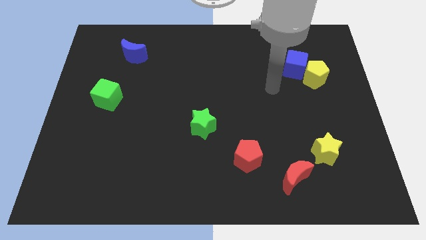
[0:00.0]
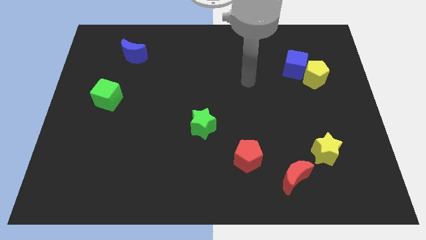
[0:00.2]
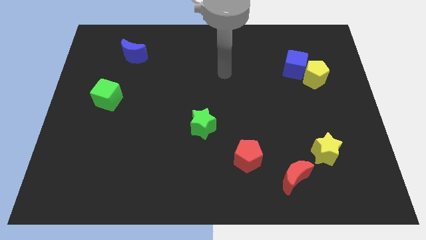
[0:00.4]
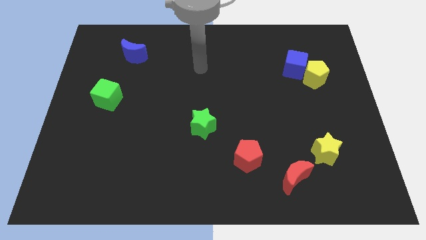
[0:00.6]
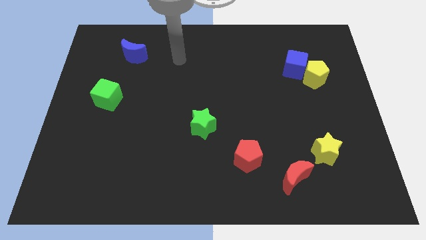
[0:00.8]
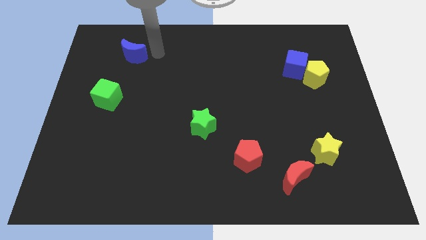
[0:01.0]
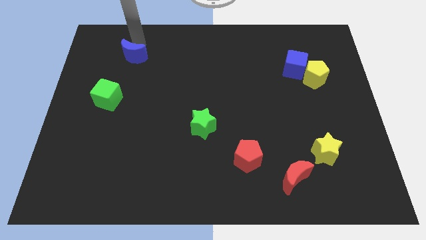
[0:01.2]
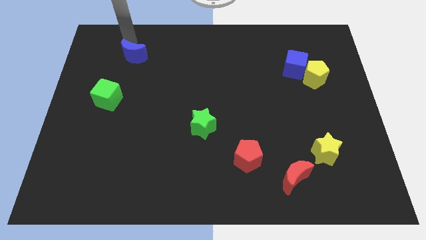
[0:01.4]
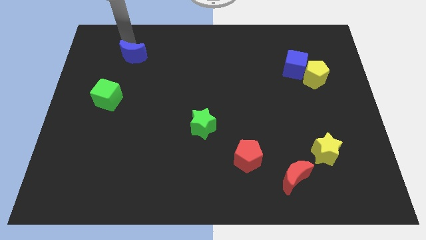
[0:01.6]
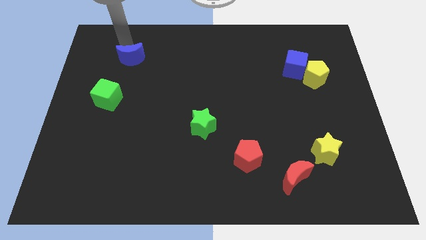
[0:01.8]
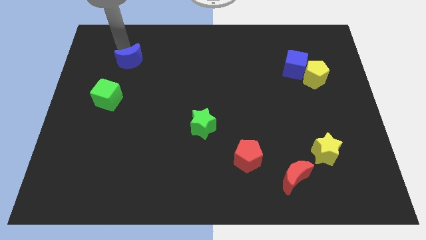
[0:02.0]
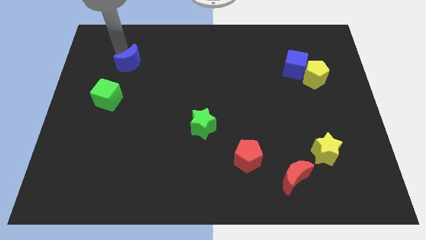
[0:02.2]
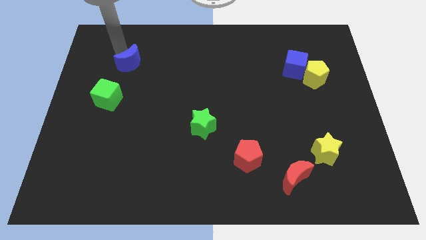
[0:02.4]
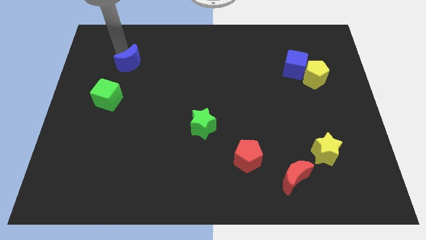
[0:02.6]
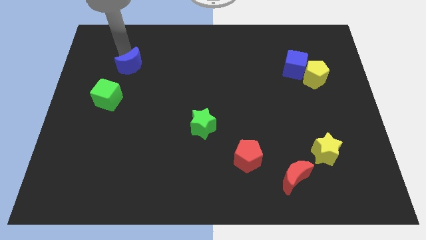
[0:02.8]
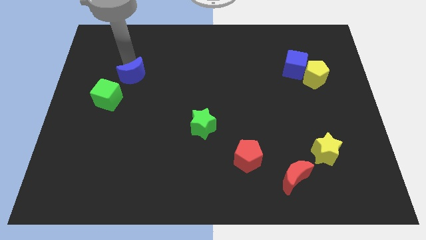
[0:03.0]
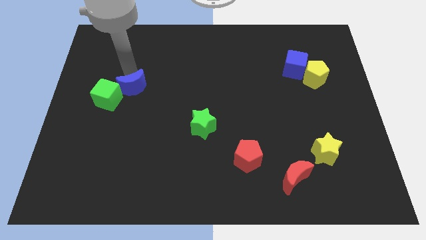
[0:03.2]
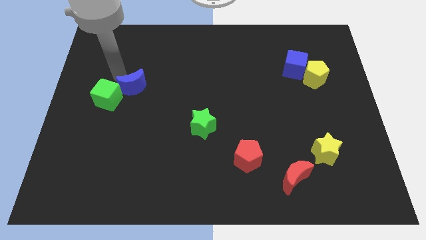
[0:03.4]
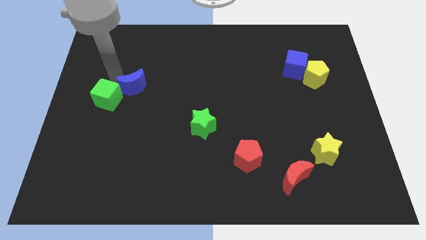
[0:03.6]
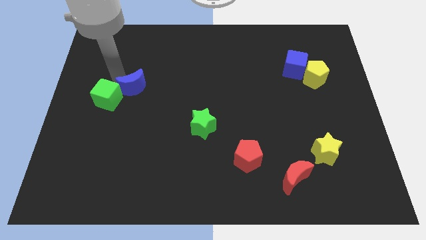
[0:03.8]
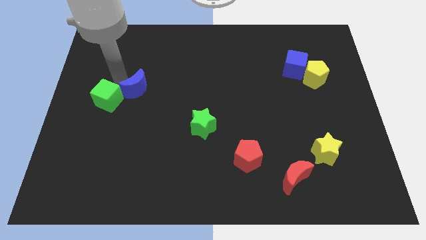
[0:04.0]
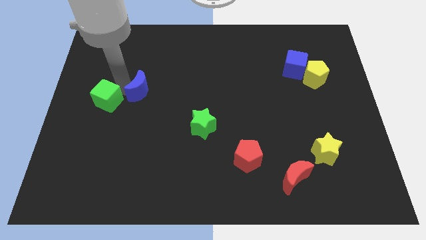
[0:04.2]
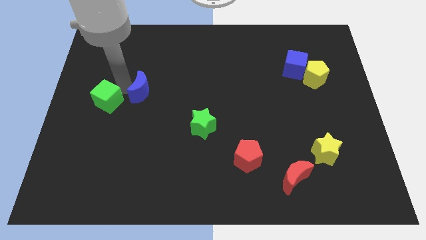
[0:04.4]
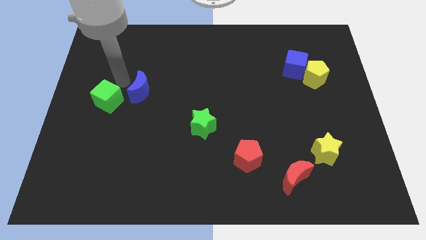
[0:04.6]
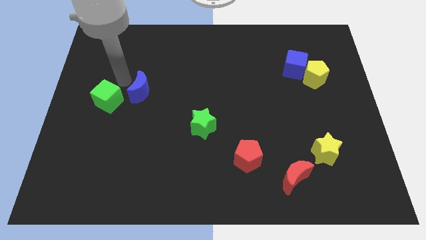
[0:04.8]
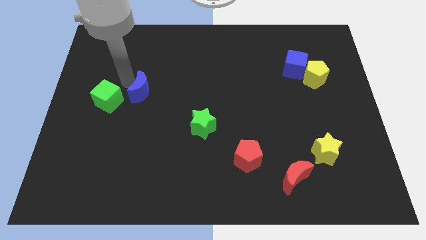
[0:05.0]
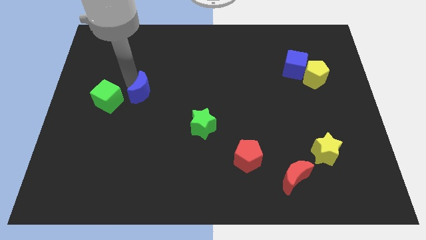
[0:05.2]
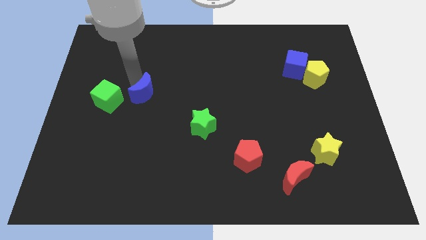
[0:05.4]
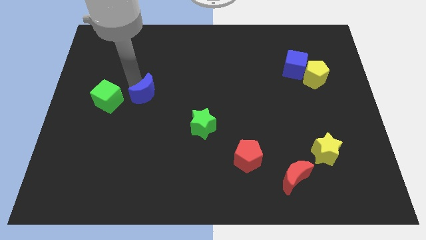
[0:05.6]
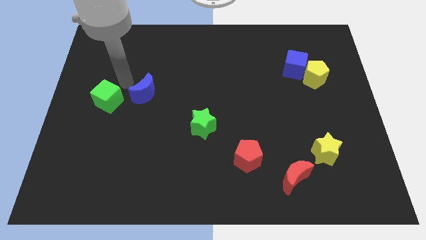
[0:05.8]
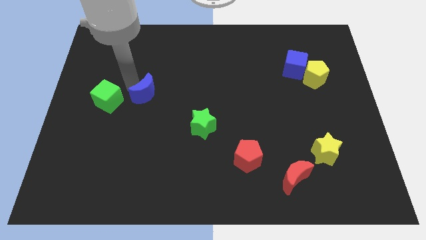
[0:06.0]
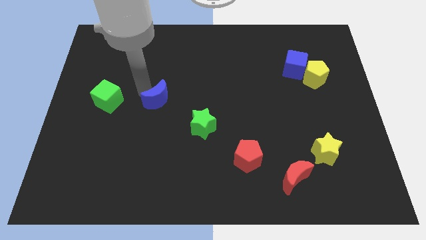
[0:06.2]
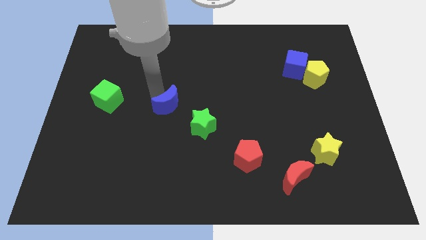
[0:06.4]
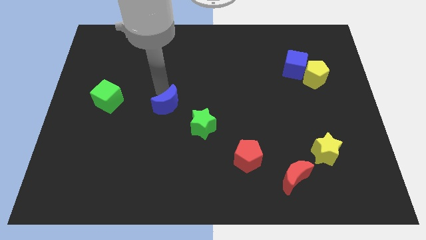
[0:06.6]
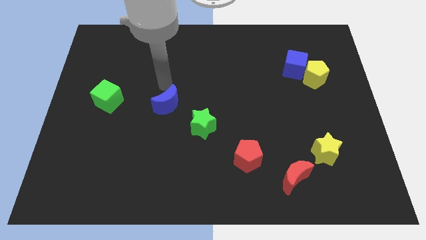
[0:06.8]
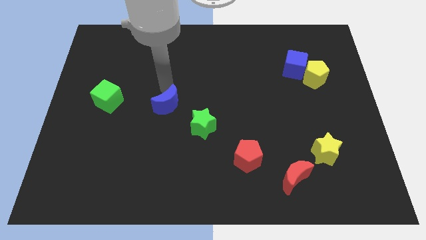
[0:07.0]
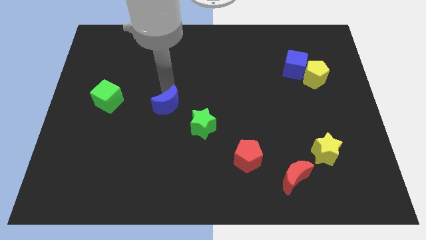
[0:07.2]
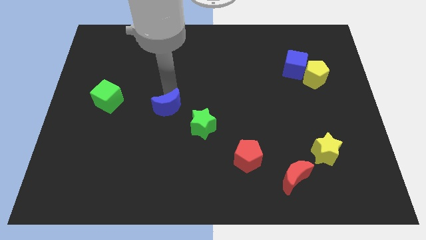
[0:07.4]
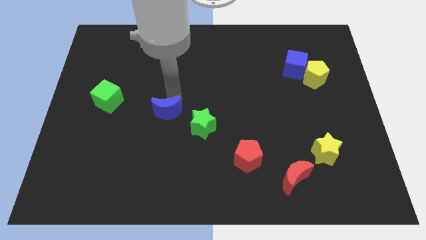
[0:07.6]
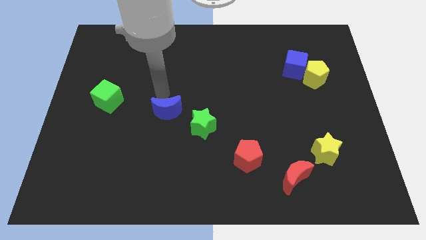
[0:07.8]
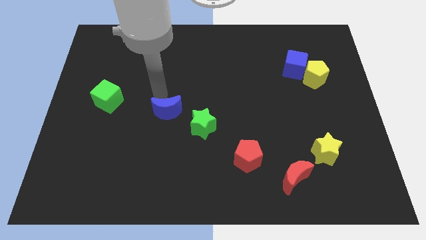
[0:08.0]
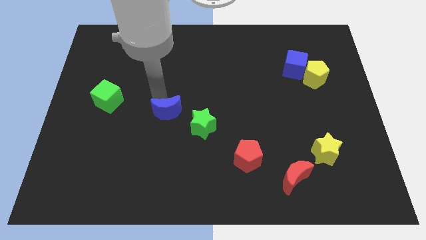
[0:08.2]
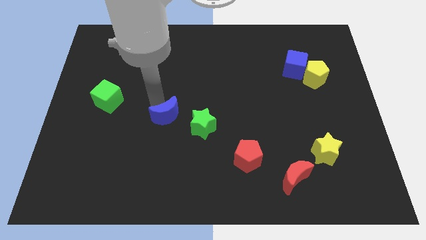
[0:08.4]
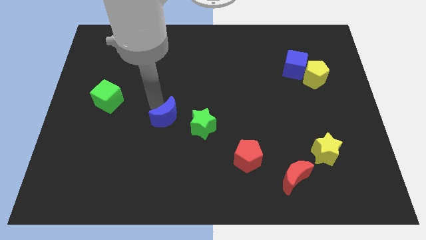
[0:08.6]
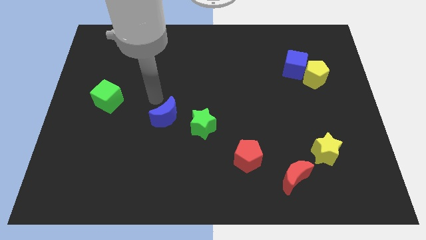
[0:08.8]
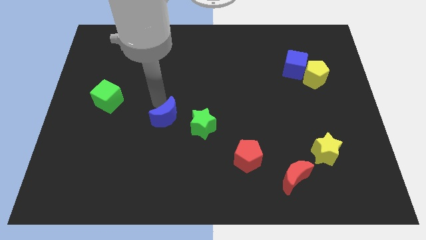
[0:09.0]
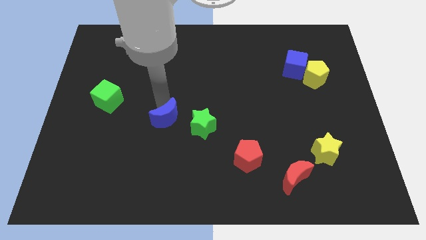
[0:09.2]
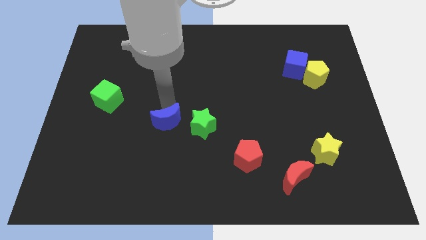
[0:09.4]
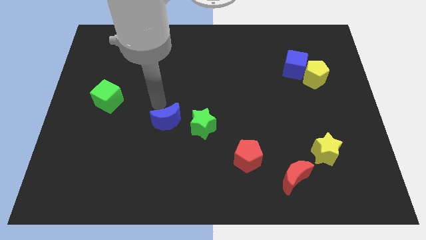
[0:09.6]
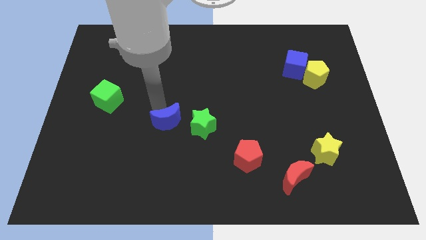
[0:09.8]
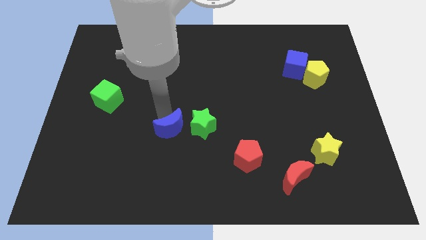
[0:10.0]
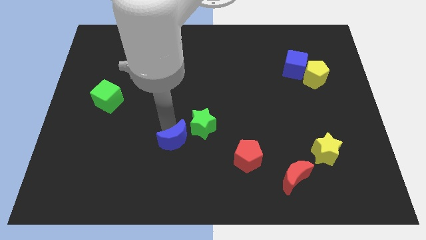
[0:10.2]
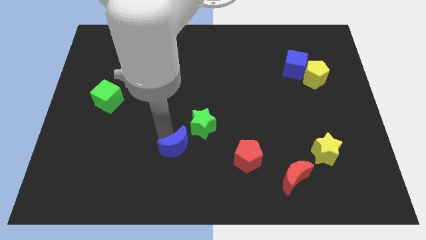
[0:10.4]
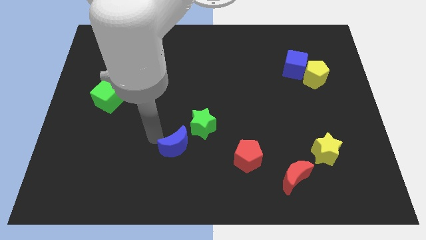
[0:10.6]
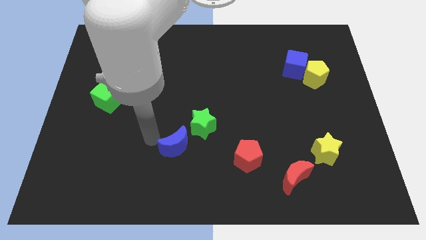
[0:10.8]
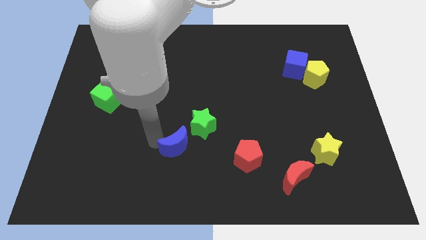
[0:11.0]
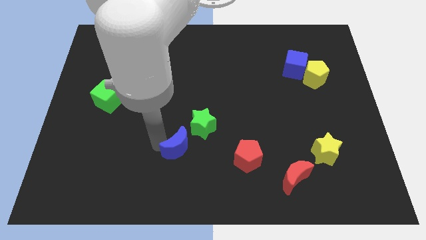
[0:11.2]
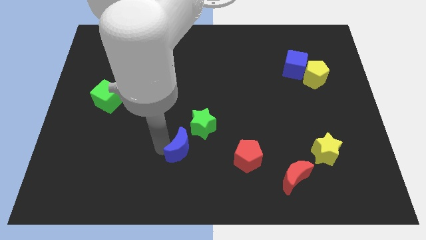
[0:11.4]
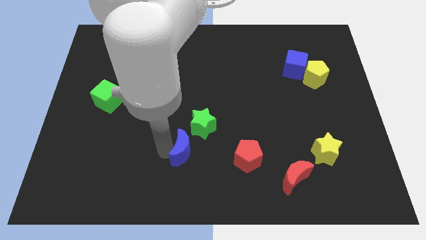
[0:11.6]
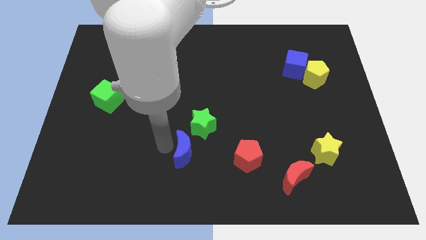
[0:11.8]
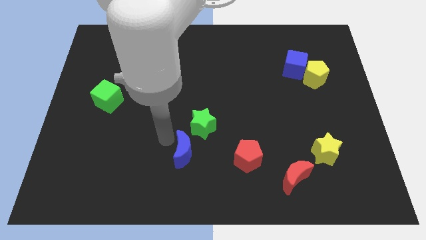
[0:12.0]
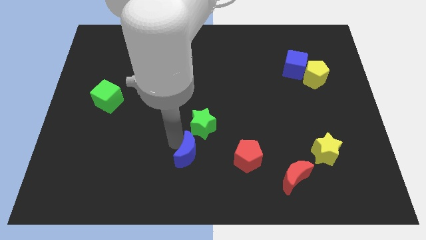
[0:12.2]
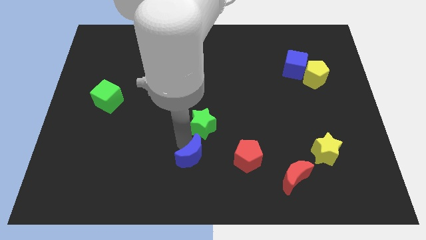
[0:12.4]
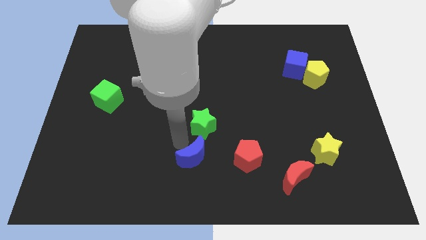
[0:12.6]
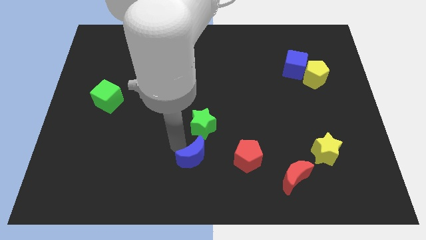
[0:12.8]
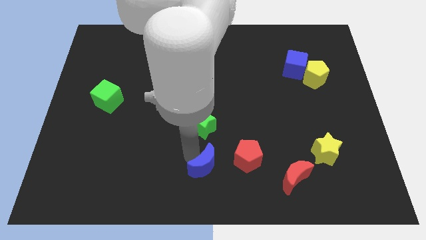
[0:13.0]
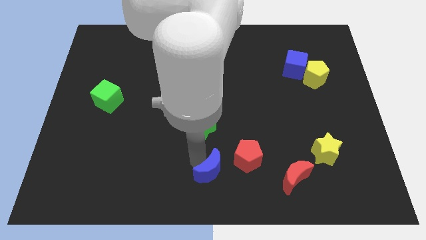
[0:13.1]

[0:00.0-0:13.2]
put the blue moon to the bottom left side of the red pentagon

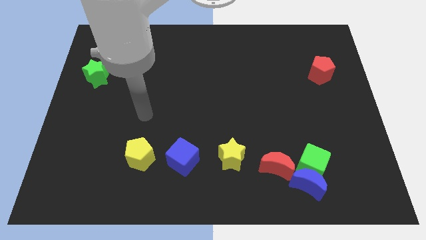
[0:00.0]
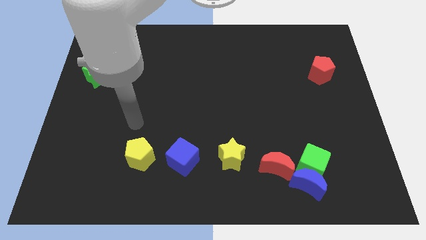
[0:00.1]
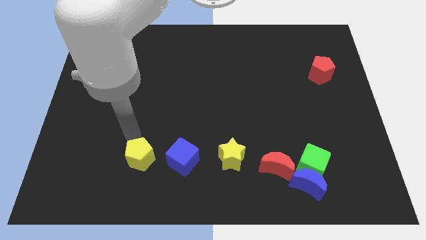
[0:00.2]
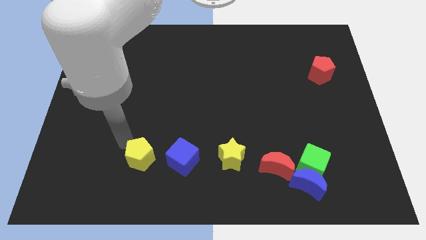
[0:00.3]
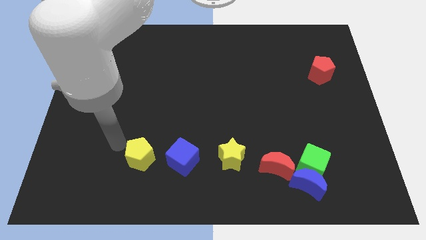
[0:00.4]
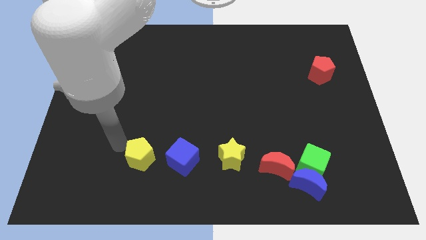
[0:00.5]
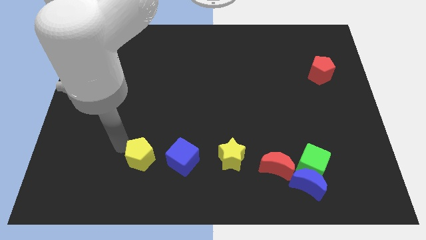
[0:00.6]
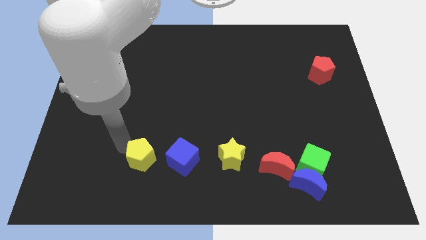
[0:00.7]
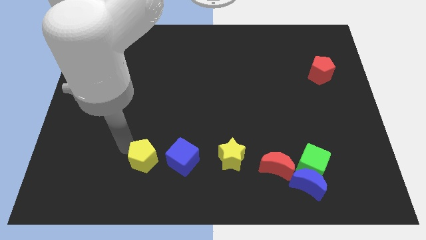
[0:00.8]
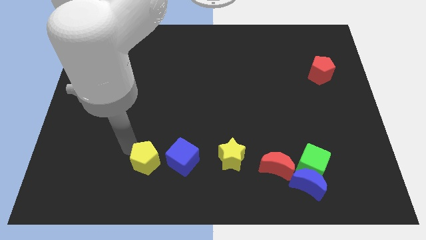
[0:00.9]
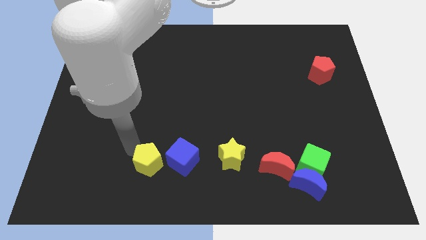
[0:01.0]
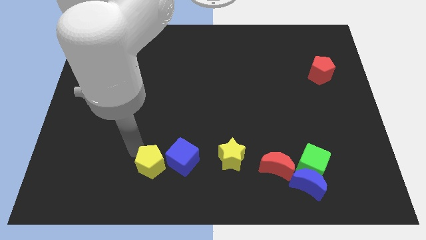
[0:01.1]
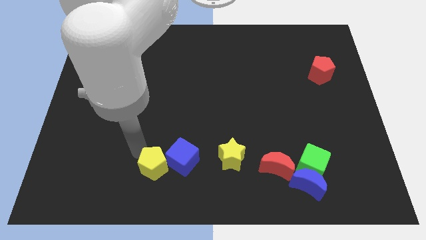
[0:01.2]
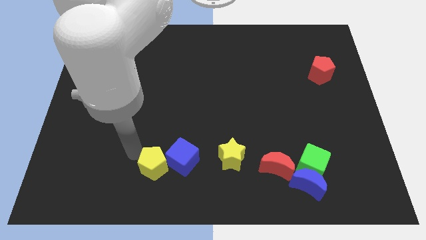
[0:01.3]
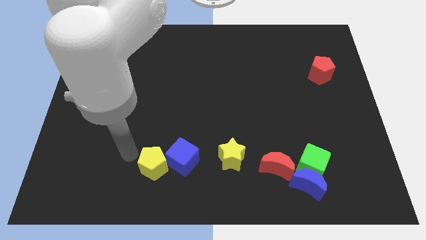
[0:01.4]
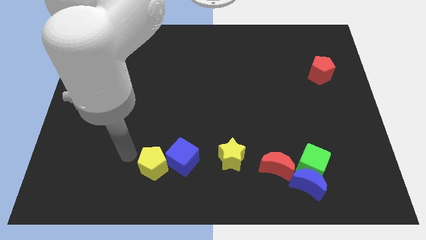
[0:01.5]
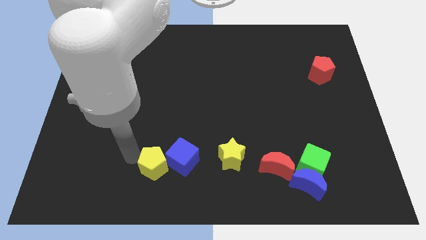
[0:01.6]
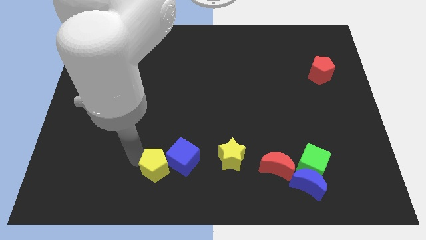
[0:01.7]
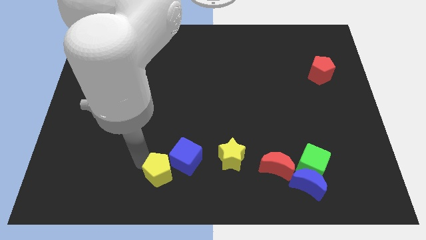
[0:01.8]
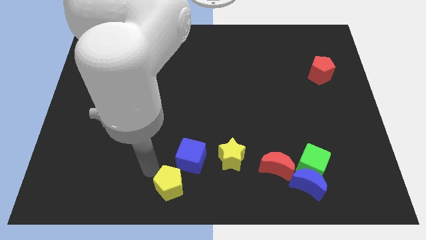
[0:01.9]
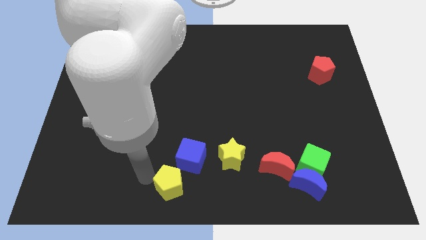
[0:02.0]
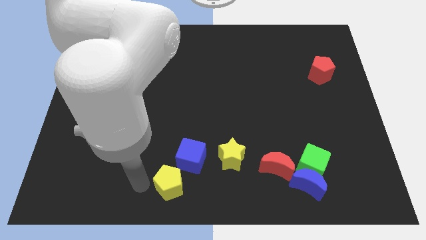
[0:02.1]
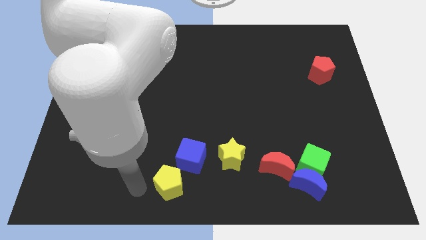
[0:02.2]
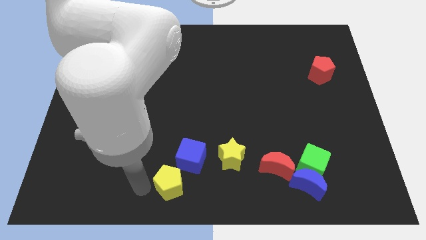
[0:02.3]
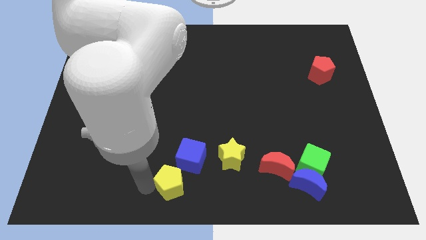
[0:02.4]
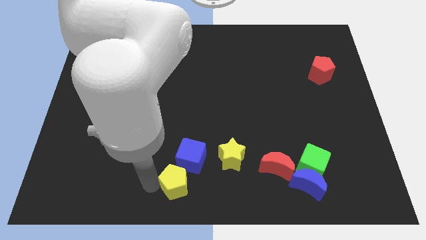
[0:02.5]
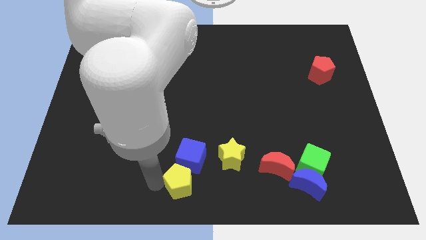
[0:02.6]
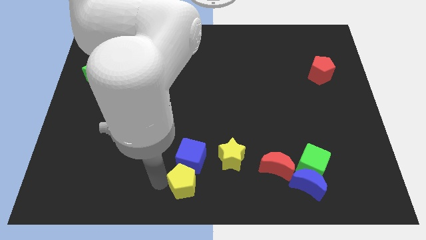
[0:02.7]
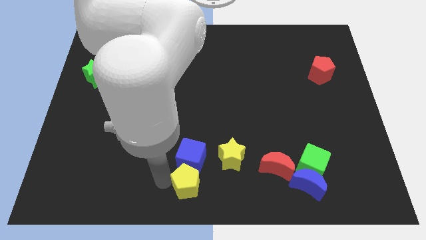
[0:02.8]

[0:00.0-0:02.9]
put the yellow pentagon to the bottom right of the blue cube
